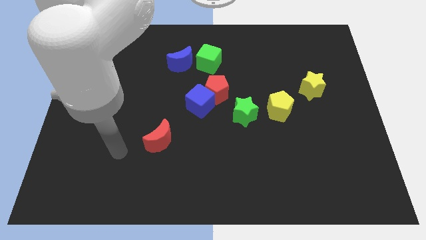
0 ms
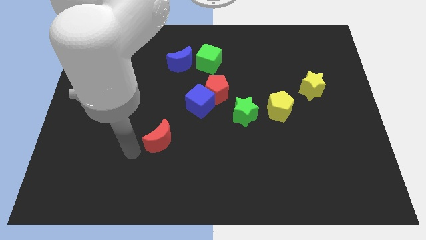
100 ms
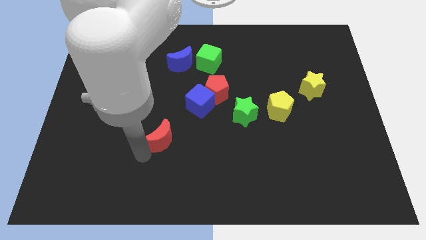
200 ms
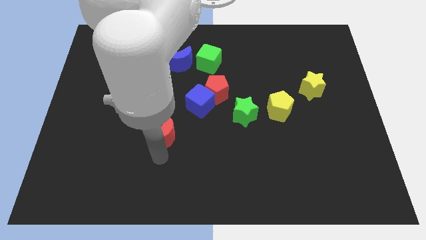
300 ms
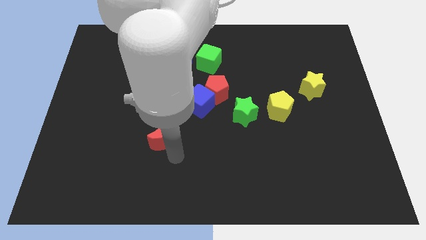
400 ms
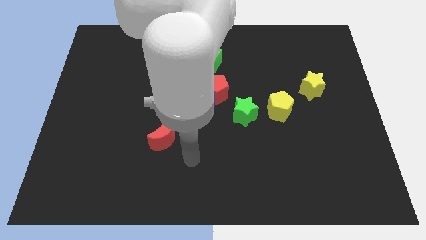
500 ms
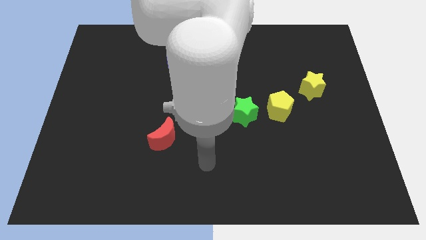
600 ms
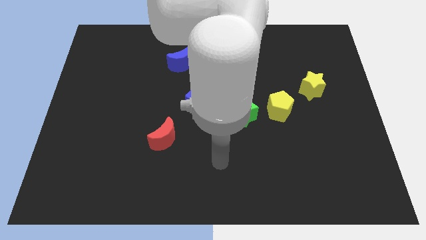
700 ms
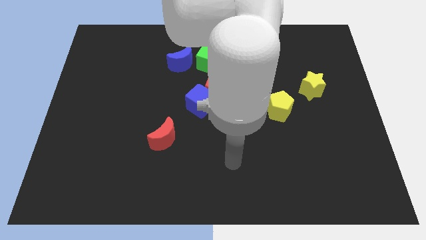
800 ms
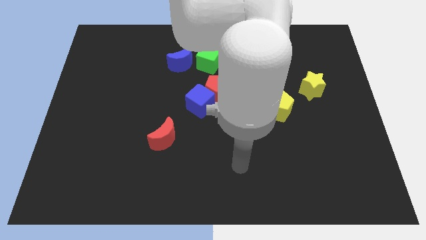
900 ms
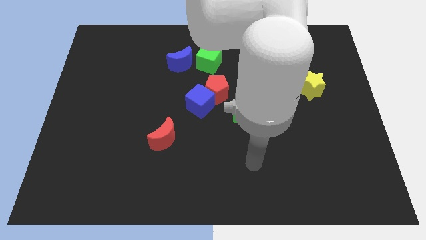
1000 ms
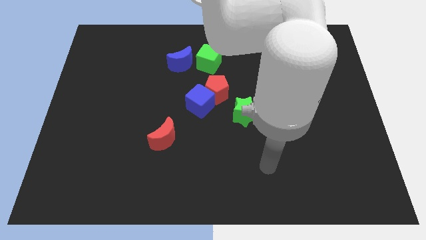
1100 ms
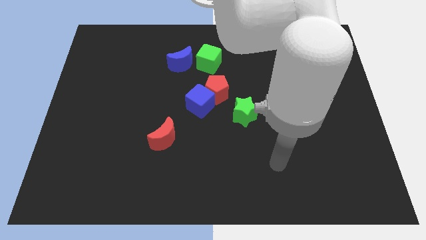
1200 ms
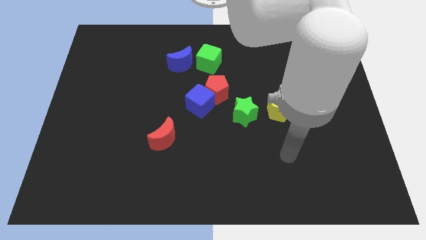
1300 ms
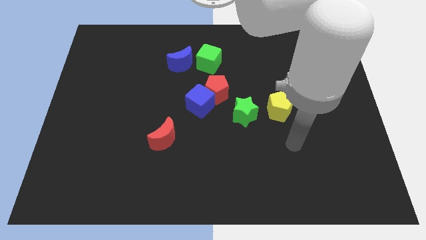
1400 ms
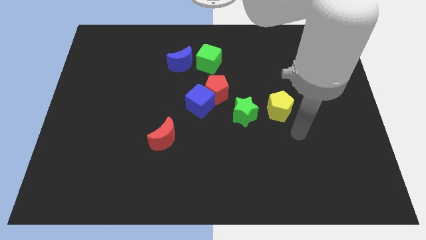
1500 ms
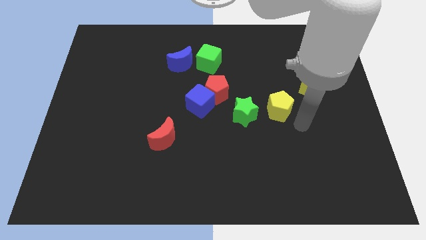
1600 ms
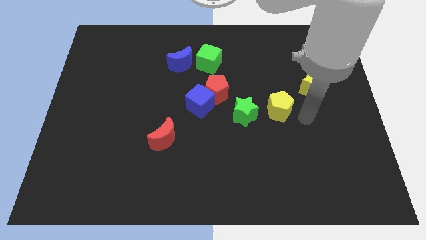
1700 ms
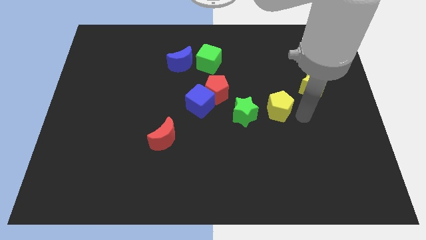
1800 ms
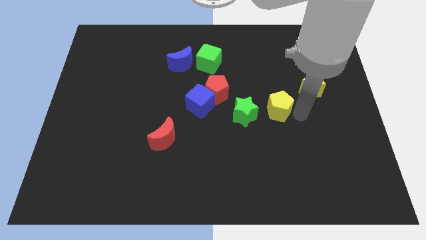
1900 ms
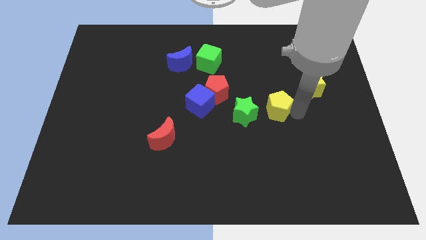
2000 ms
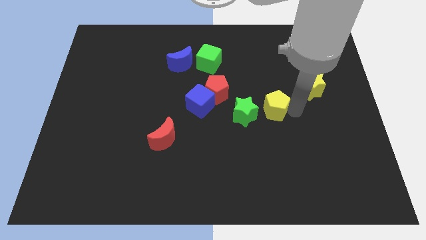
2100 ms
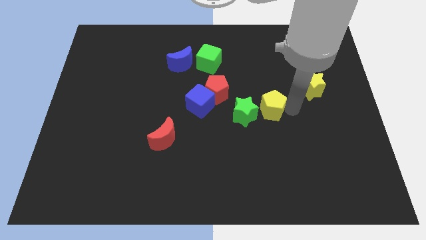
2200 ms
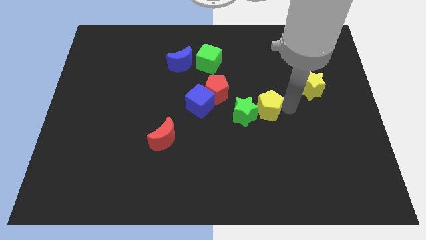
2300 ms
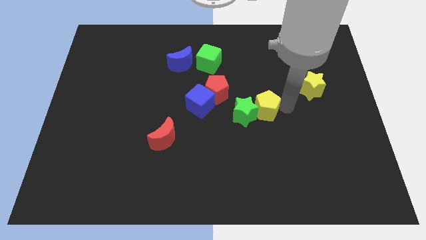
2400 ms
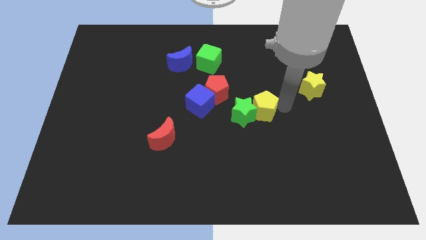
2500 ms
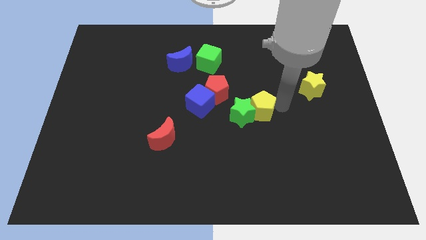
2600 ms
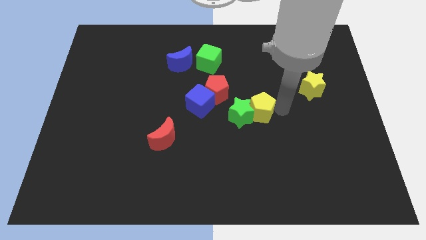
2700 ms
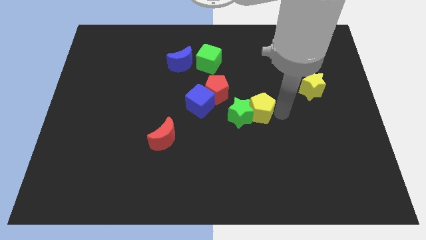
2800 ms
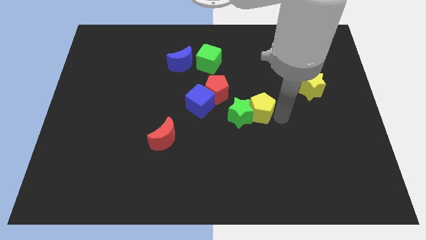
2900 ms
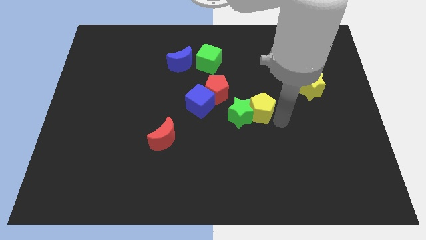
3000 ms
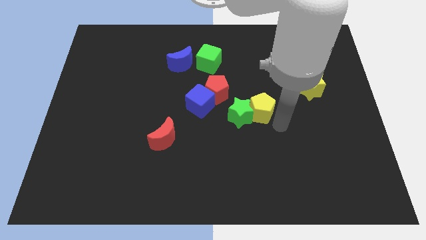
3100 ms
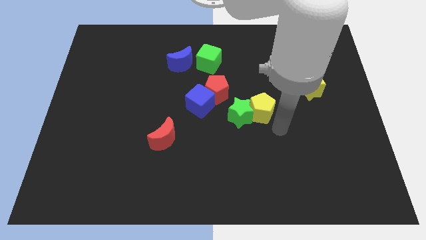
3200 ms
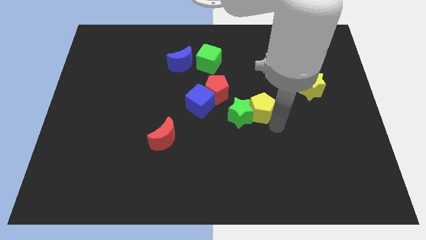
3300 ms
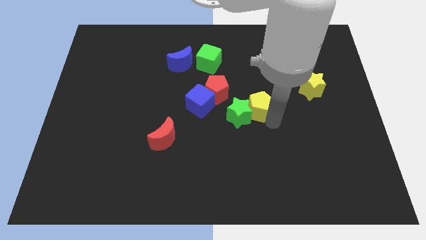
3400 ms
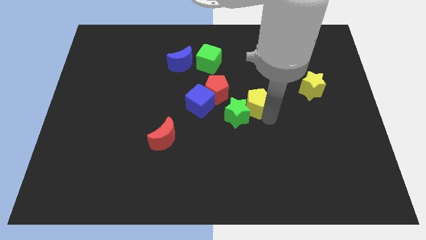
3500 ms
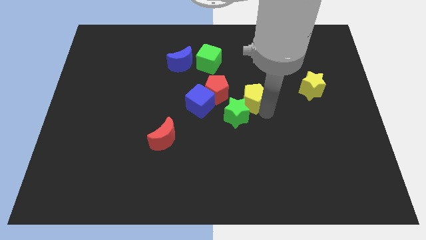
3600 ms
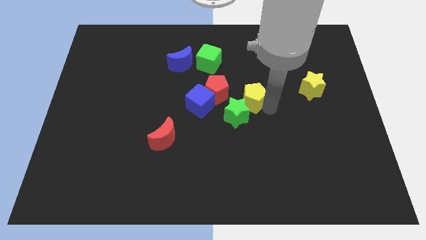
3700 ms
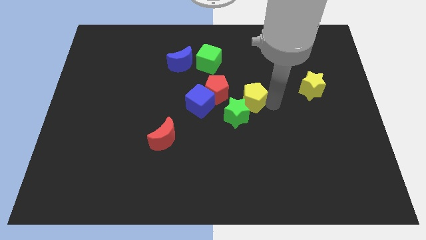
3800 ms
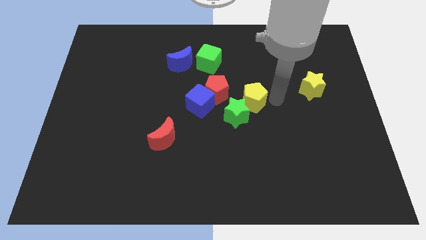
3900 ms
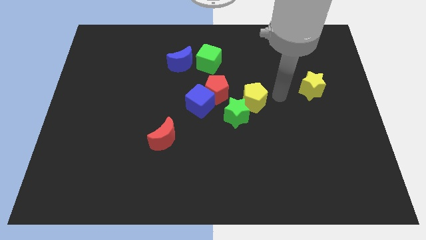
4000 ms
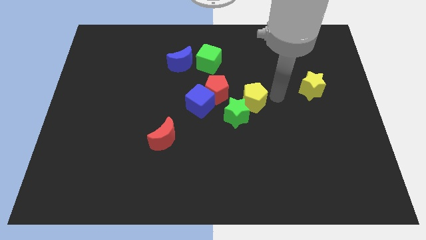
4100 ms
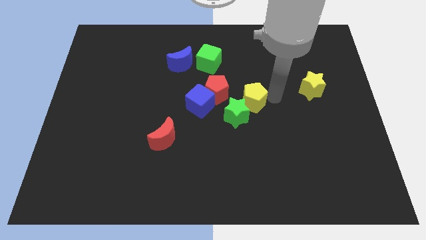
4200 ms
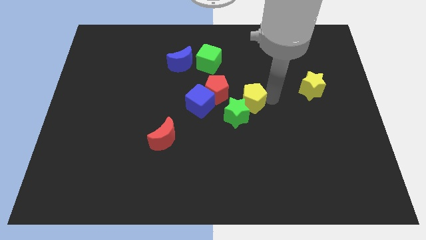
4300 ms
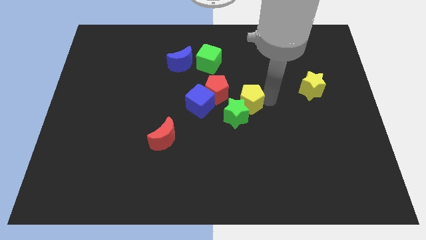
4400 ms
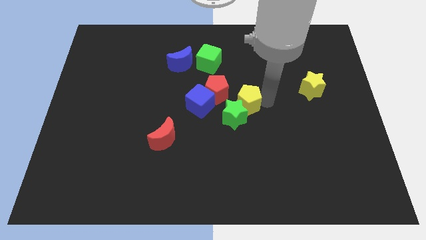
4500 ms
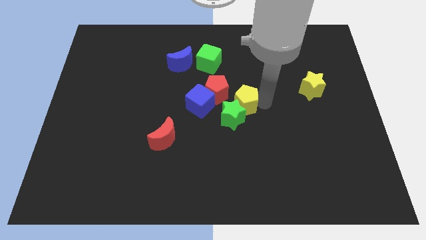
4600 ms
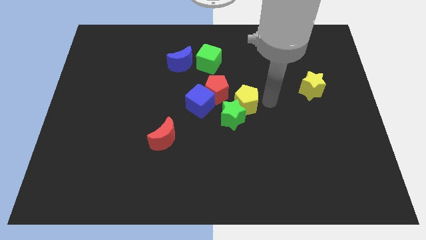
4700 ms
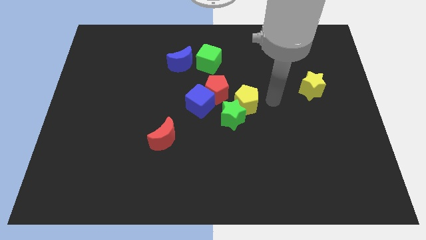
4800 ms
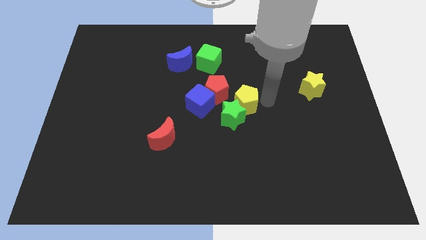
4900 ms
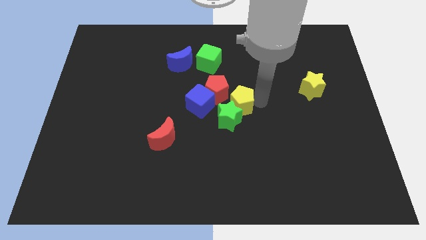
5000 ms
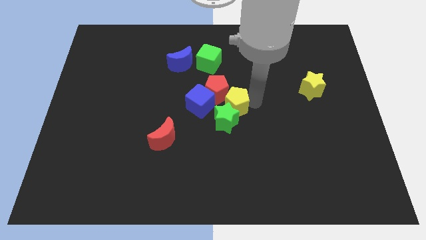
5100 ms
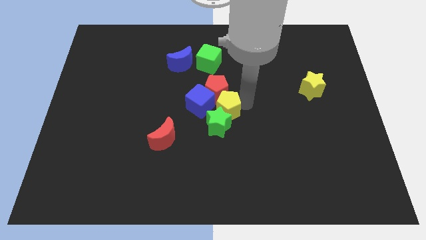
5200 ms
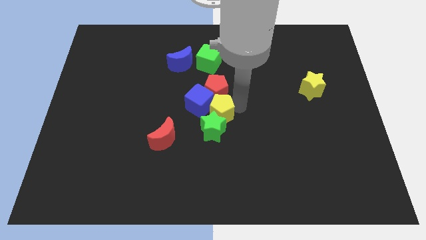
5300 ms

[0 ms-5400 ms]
put the yellow pentagon to the blue cube

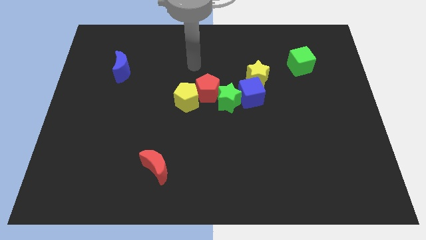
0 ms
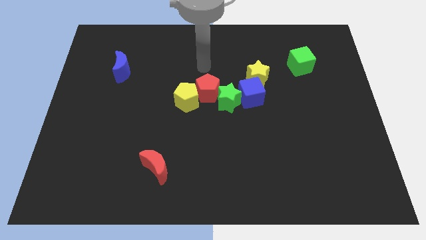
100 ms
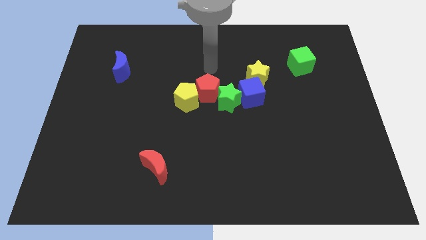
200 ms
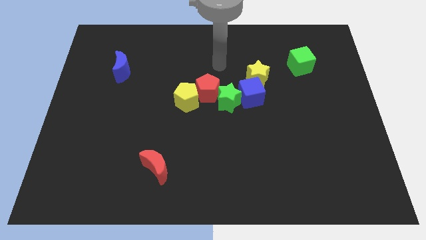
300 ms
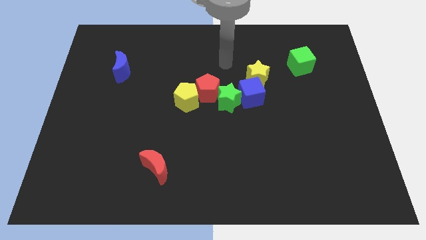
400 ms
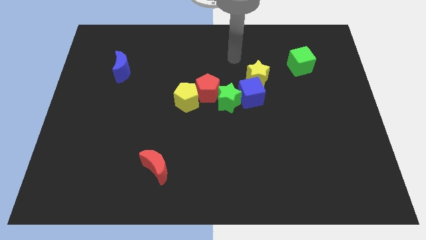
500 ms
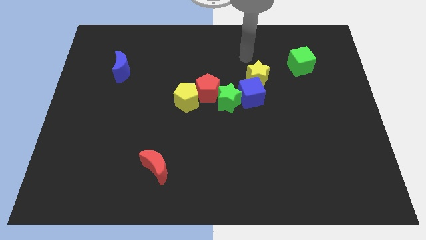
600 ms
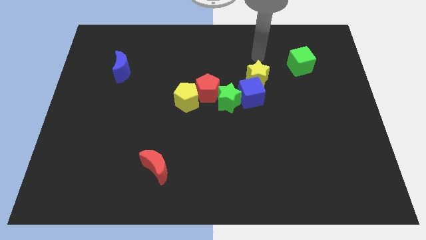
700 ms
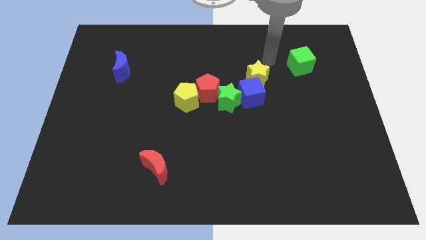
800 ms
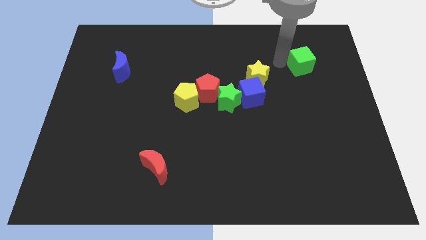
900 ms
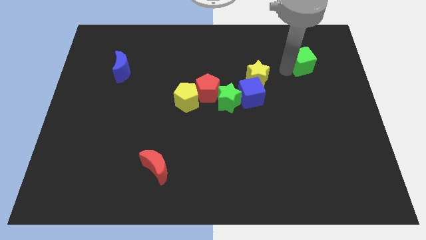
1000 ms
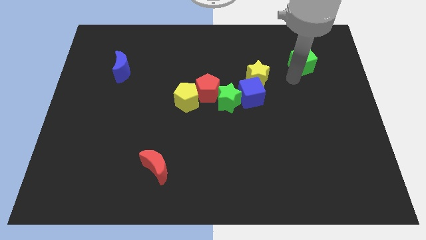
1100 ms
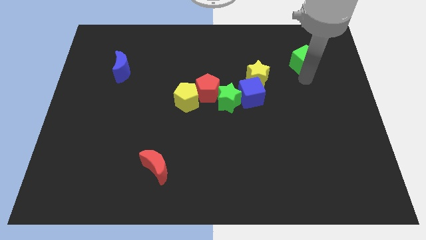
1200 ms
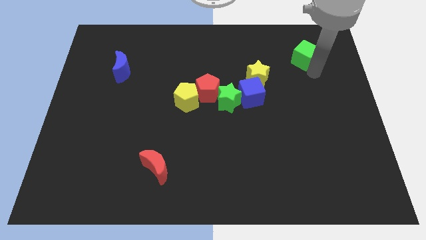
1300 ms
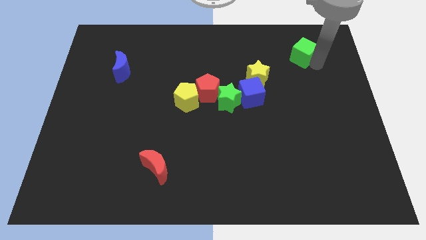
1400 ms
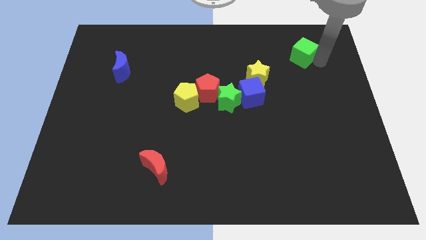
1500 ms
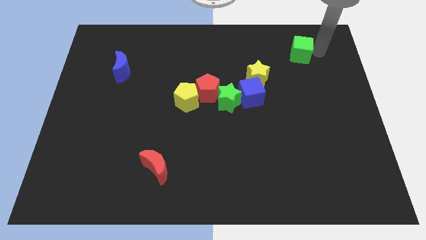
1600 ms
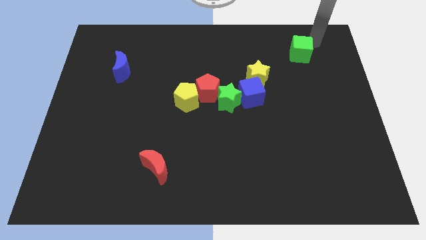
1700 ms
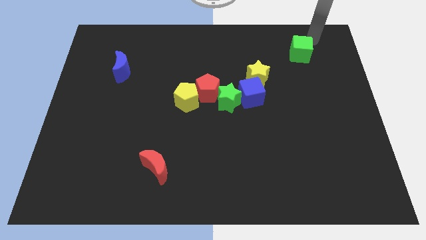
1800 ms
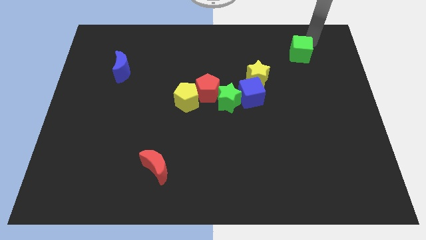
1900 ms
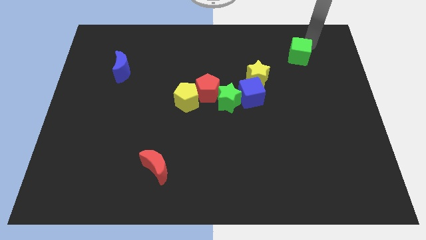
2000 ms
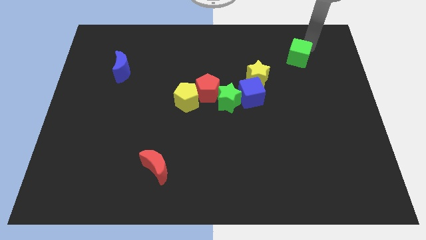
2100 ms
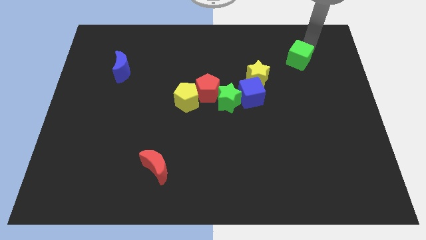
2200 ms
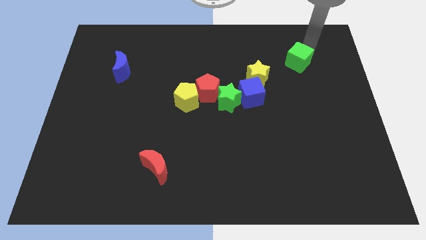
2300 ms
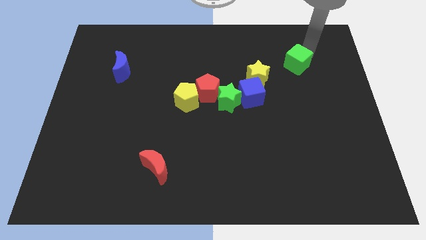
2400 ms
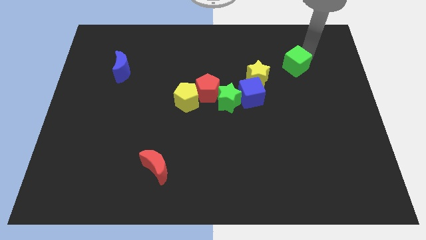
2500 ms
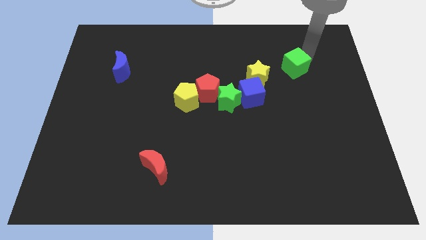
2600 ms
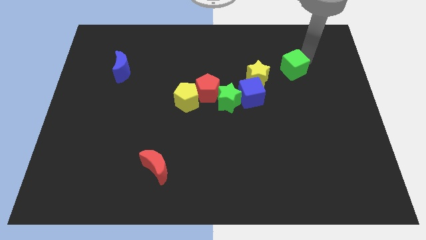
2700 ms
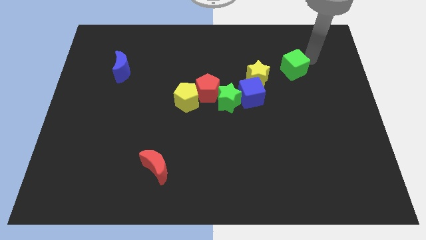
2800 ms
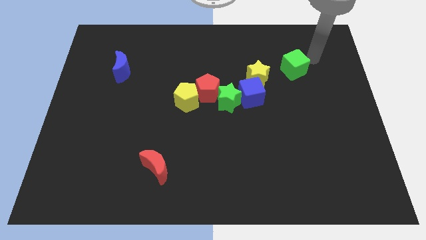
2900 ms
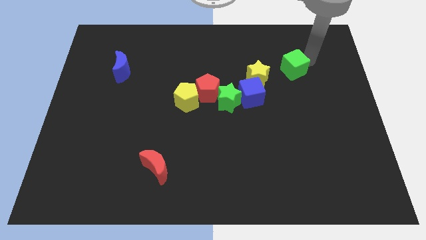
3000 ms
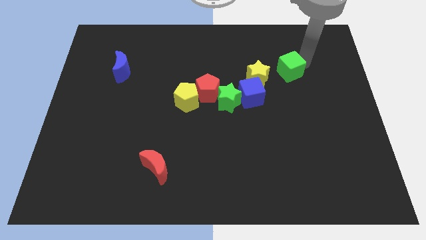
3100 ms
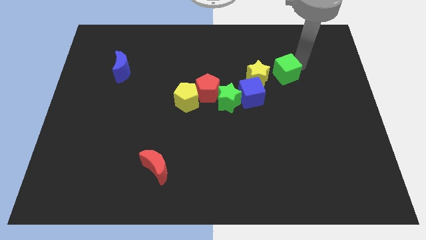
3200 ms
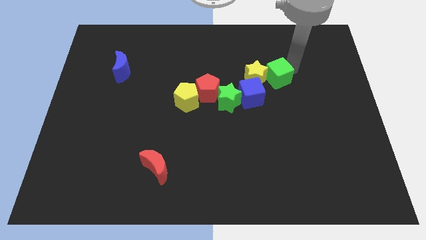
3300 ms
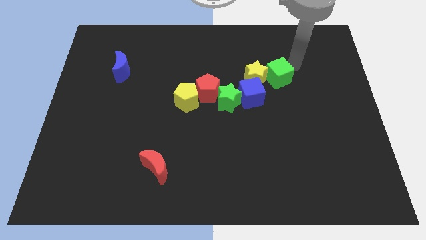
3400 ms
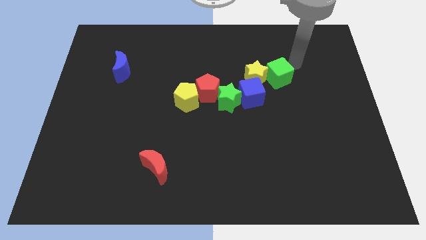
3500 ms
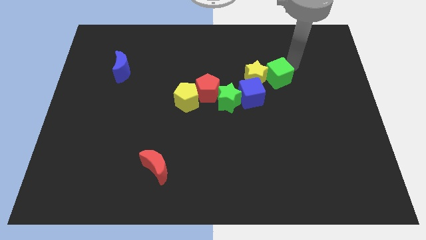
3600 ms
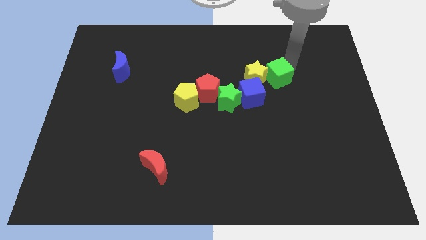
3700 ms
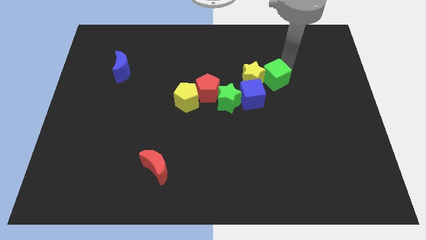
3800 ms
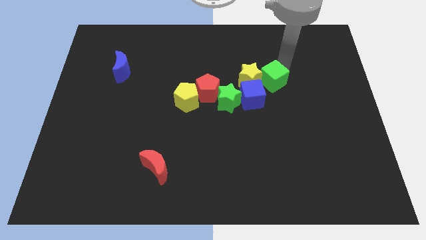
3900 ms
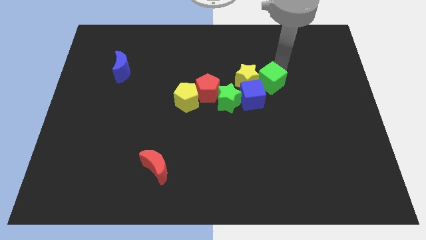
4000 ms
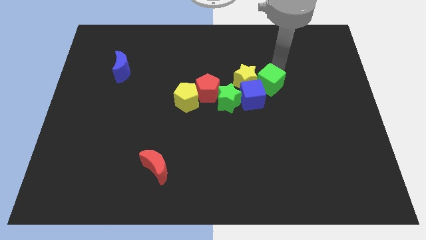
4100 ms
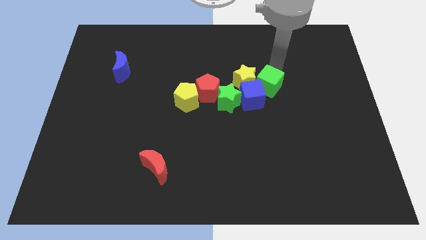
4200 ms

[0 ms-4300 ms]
move the green cube towards the blue cube
